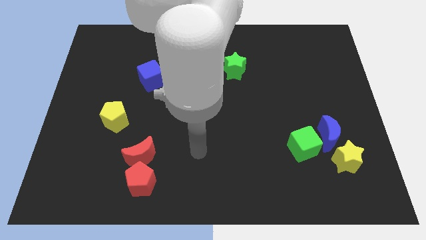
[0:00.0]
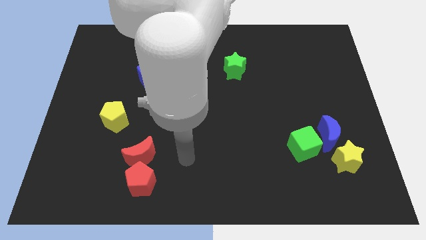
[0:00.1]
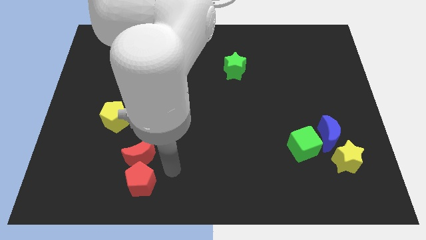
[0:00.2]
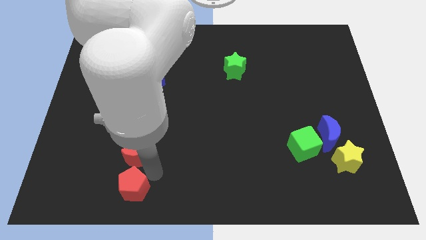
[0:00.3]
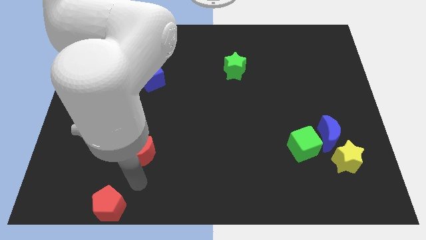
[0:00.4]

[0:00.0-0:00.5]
move the red moon away from the red pentagon

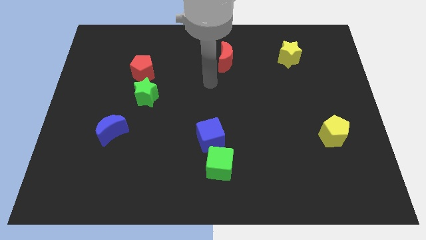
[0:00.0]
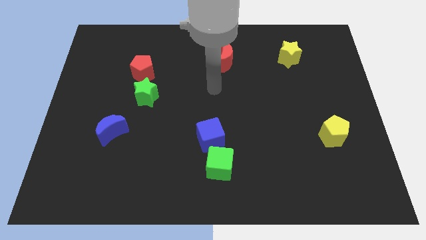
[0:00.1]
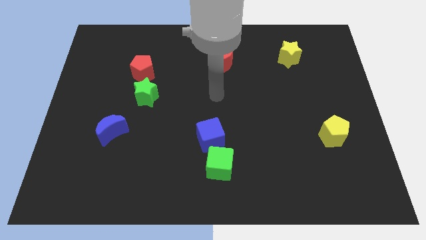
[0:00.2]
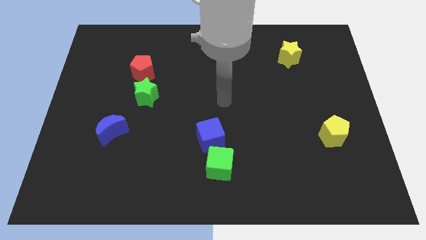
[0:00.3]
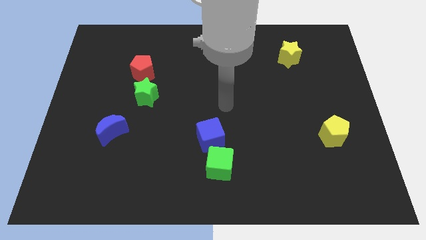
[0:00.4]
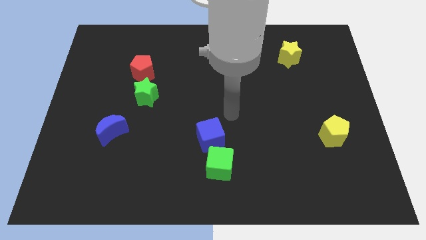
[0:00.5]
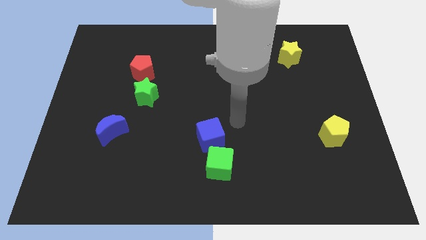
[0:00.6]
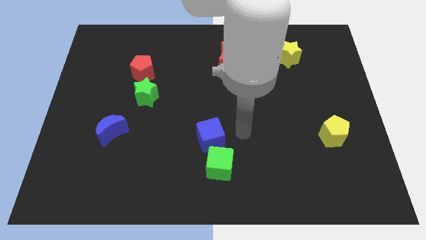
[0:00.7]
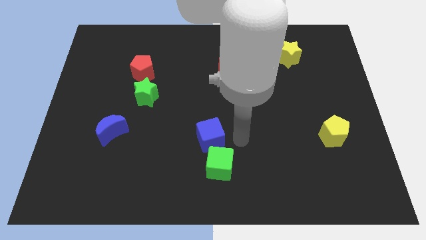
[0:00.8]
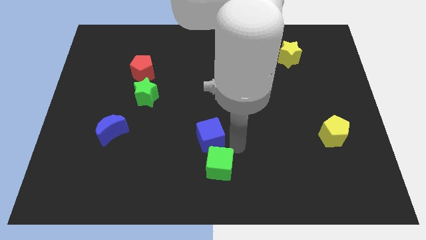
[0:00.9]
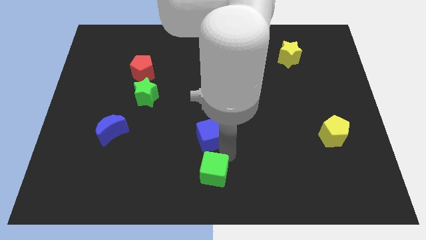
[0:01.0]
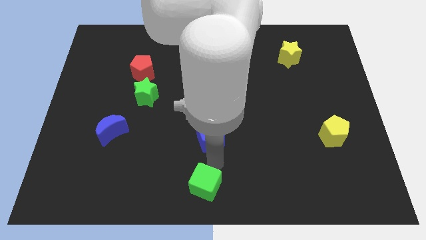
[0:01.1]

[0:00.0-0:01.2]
move the blue cube away from the green cube

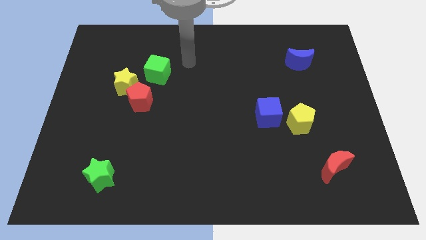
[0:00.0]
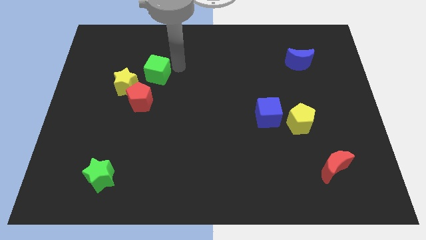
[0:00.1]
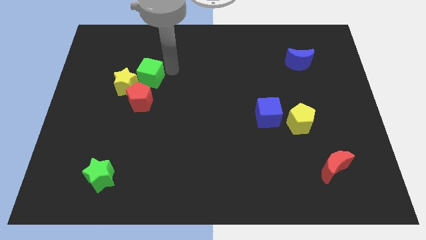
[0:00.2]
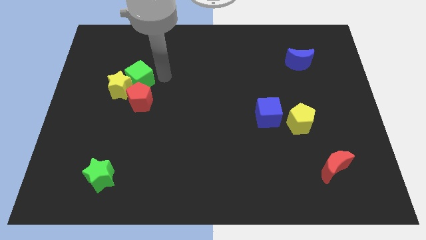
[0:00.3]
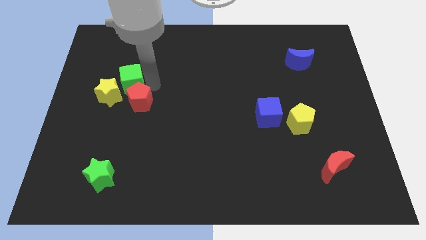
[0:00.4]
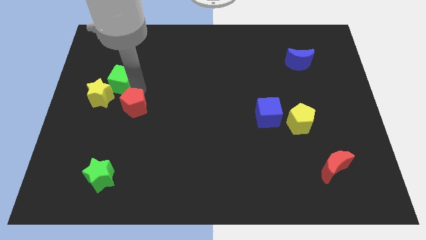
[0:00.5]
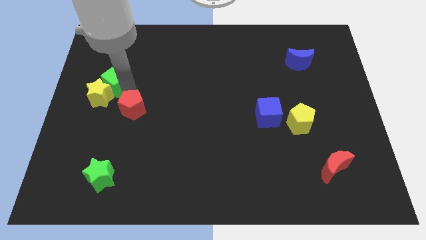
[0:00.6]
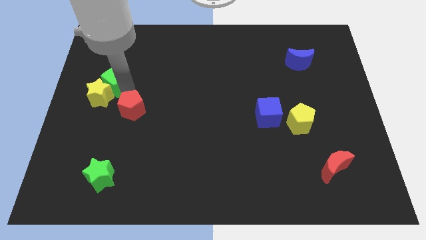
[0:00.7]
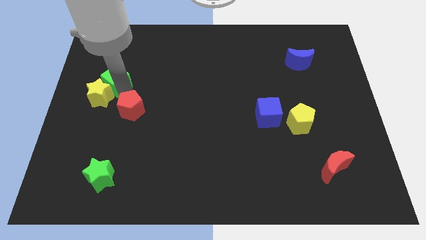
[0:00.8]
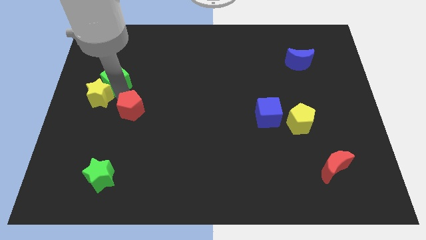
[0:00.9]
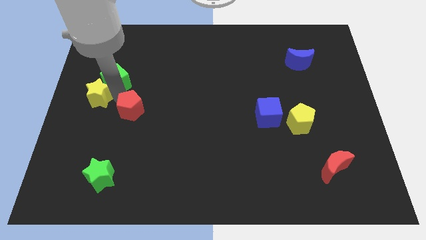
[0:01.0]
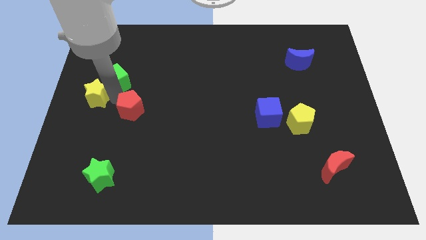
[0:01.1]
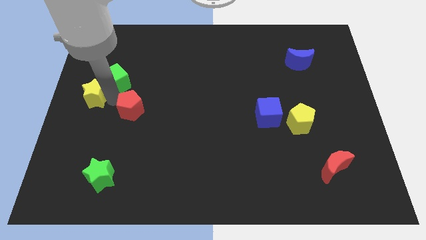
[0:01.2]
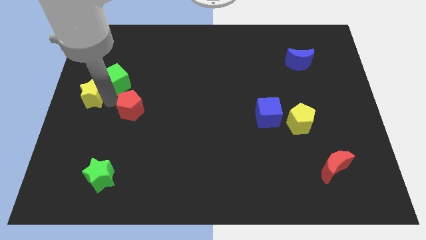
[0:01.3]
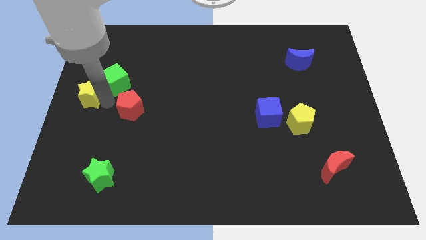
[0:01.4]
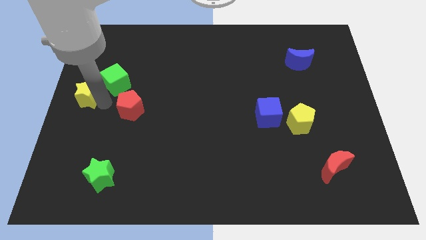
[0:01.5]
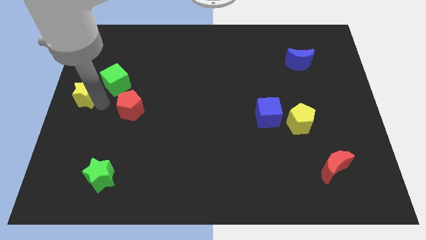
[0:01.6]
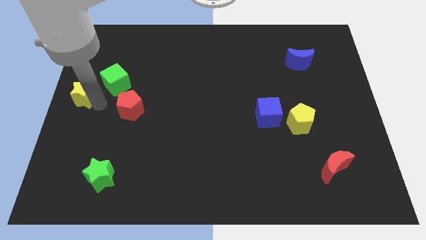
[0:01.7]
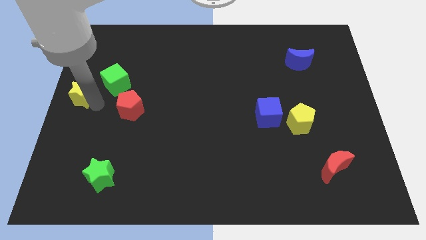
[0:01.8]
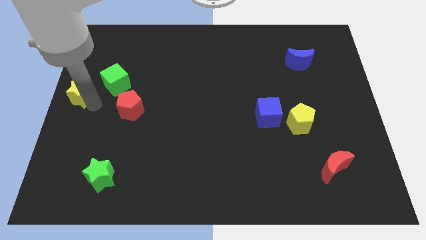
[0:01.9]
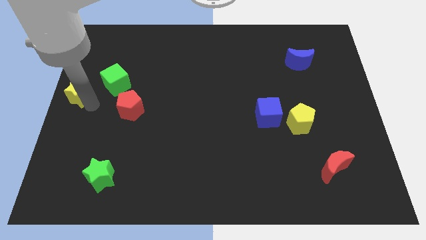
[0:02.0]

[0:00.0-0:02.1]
pull the yellow star apart from the red pentagon and green cube

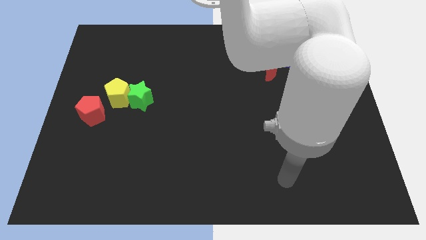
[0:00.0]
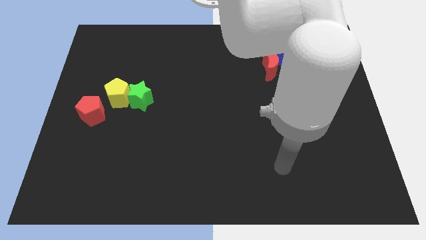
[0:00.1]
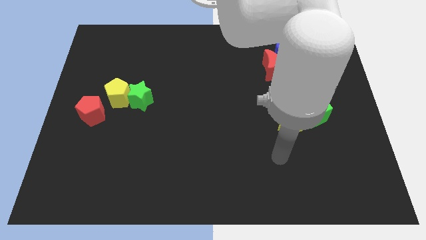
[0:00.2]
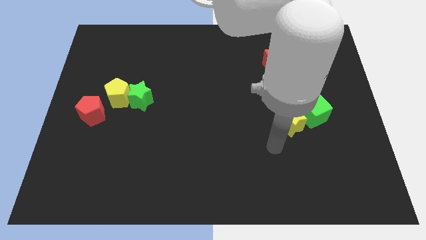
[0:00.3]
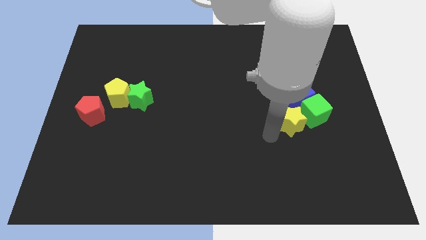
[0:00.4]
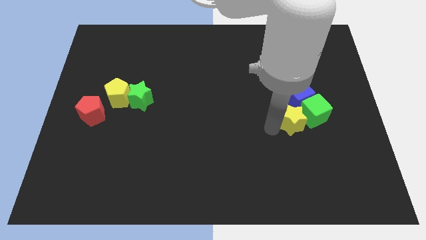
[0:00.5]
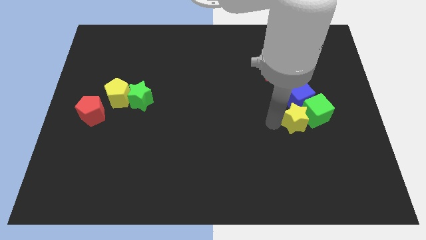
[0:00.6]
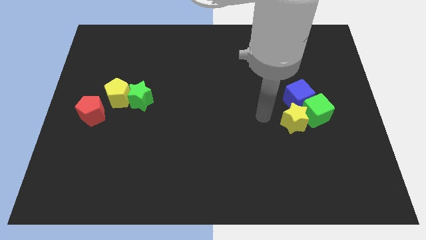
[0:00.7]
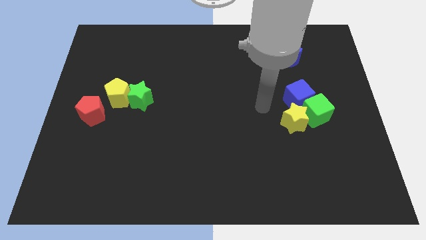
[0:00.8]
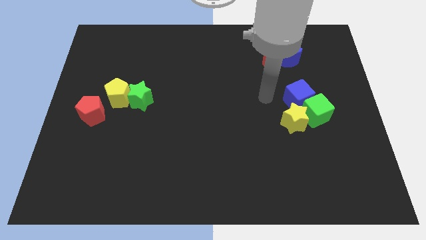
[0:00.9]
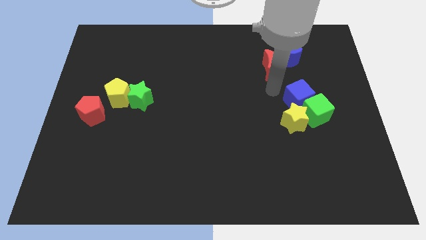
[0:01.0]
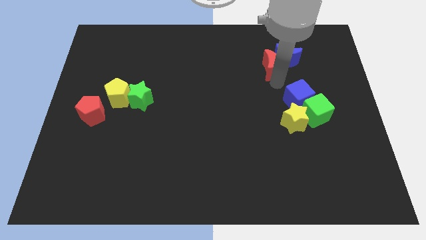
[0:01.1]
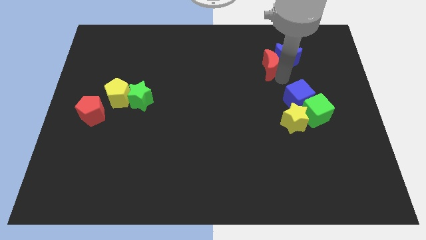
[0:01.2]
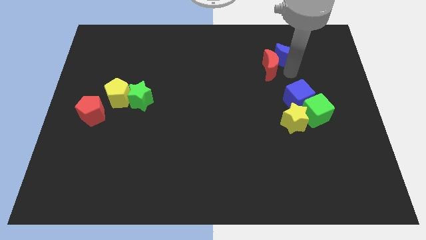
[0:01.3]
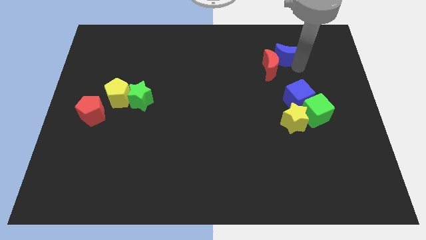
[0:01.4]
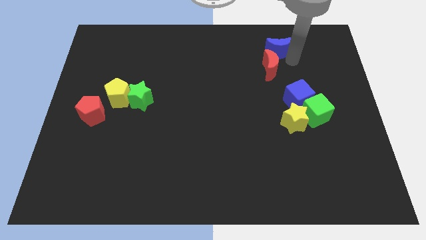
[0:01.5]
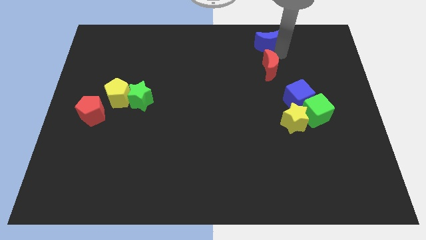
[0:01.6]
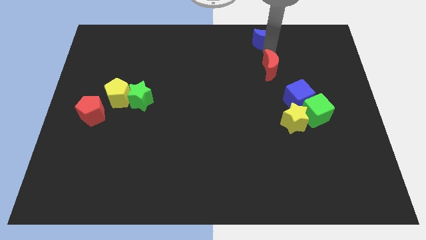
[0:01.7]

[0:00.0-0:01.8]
separate the red moon from the blue moon

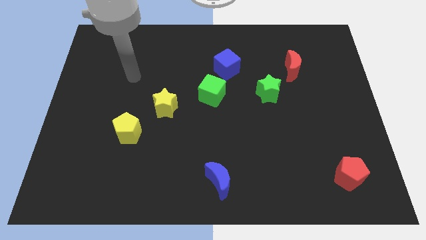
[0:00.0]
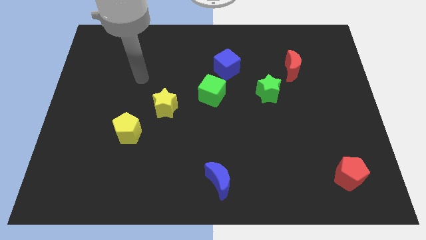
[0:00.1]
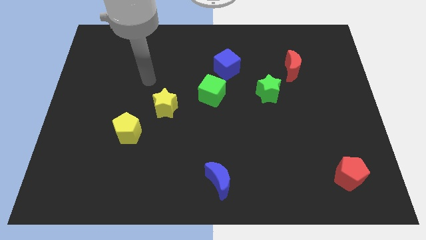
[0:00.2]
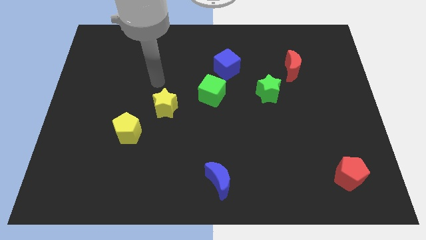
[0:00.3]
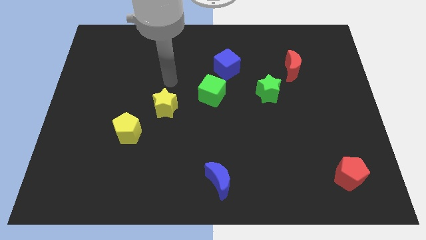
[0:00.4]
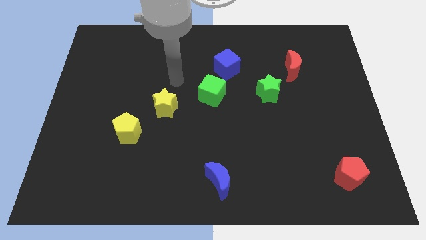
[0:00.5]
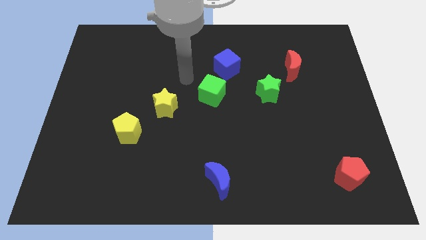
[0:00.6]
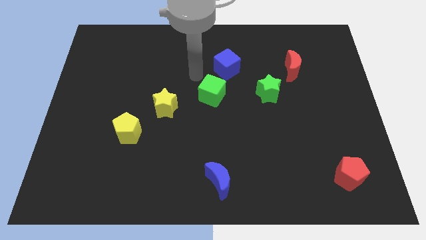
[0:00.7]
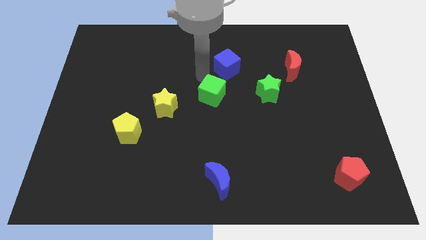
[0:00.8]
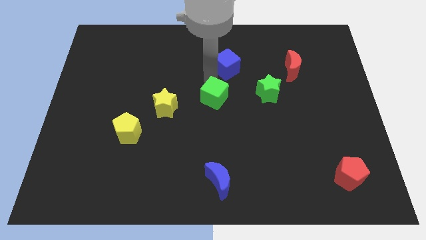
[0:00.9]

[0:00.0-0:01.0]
pull the blue cube apart from the green cube

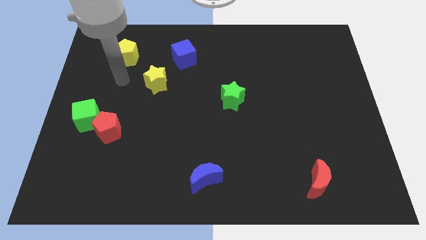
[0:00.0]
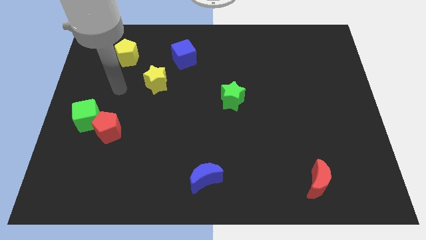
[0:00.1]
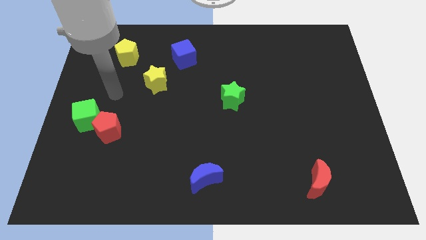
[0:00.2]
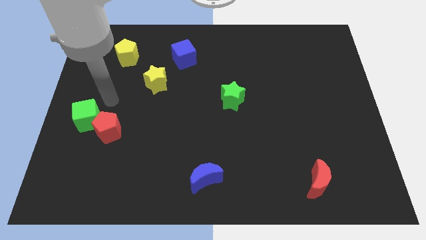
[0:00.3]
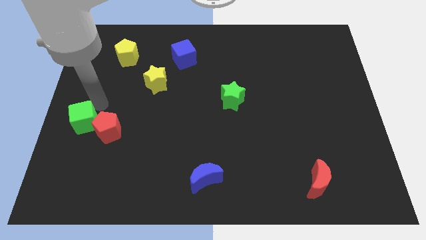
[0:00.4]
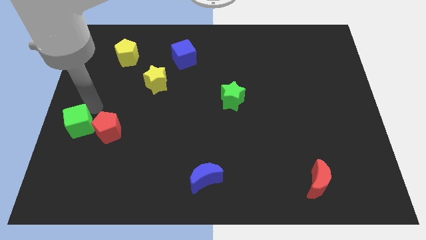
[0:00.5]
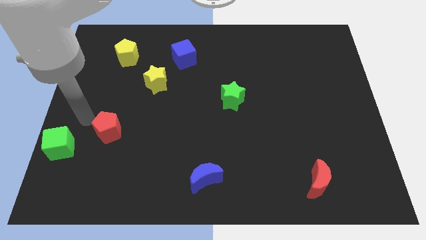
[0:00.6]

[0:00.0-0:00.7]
move the red pentagon away from the green cube

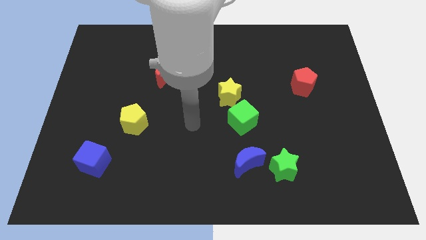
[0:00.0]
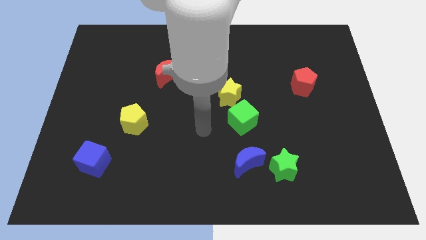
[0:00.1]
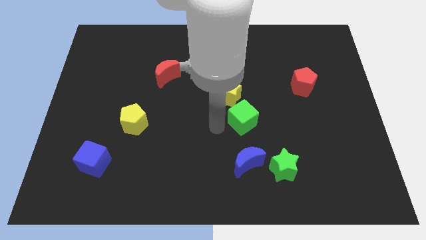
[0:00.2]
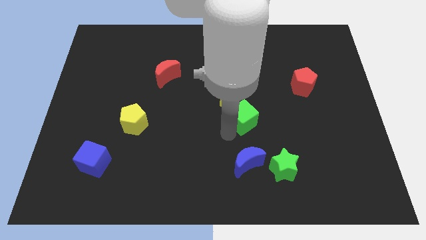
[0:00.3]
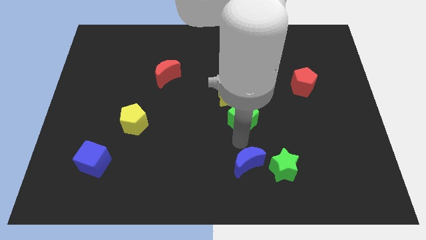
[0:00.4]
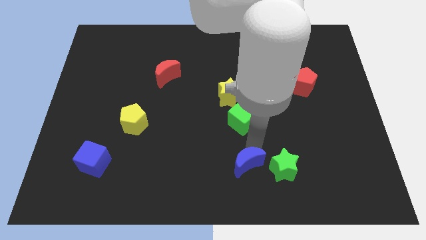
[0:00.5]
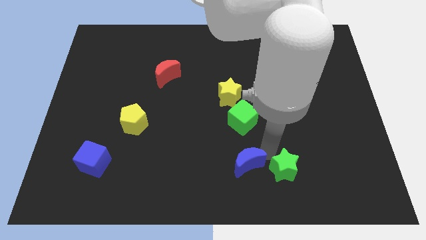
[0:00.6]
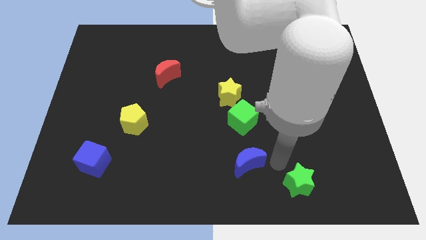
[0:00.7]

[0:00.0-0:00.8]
move the blue moon away from the green star

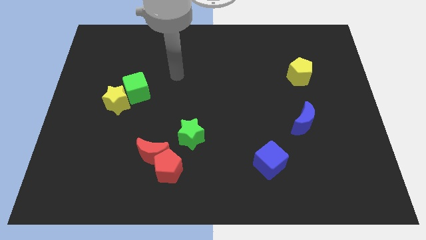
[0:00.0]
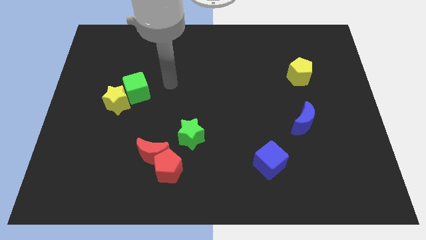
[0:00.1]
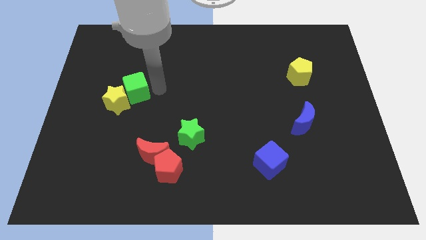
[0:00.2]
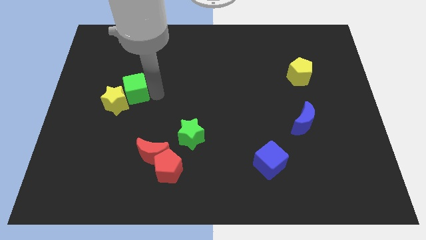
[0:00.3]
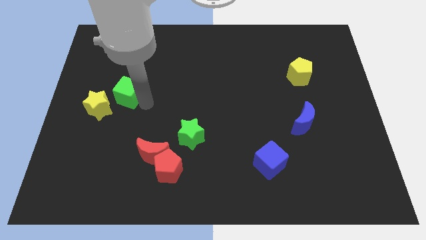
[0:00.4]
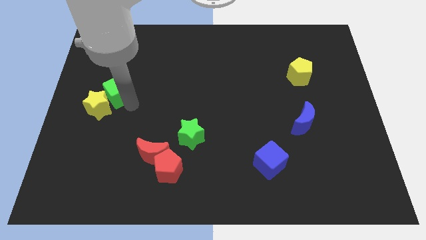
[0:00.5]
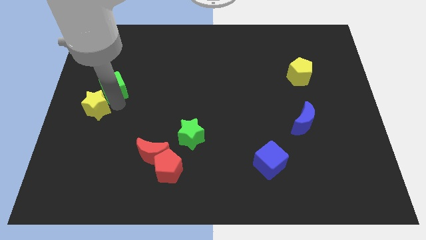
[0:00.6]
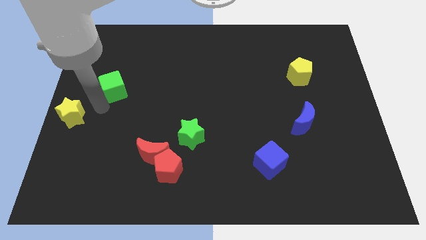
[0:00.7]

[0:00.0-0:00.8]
move the green cube away from the yellow star

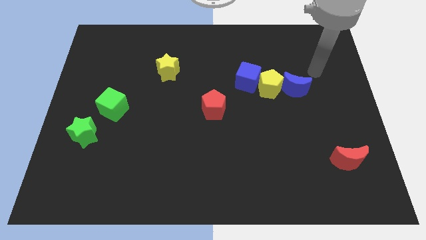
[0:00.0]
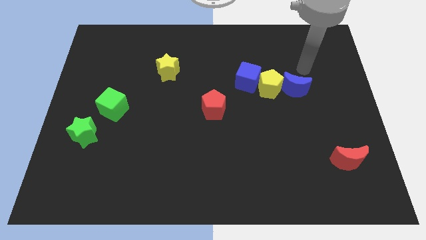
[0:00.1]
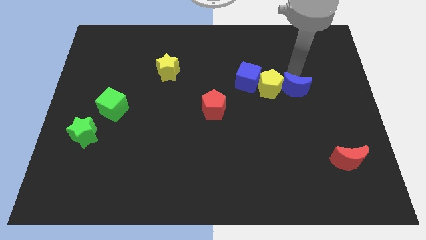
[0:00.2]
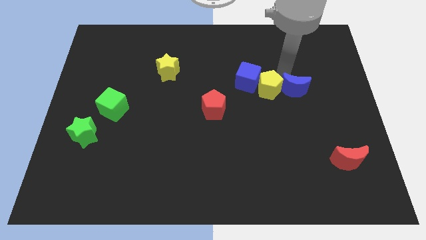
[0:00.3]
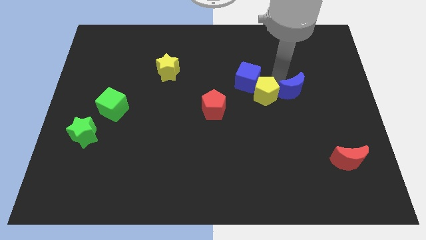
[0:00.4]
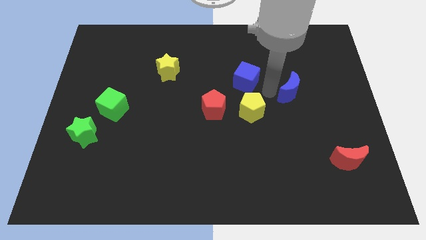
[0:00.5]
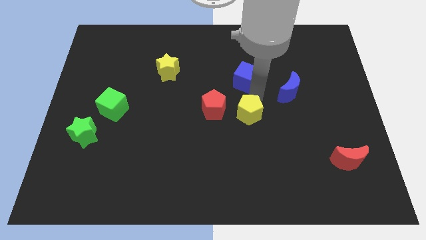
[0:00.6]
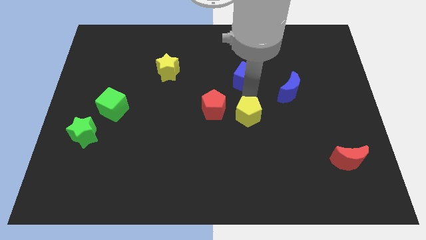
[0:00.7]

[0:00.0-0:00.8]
separate the blue cube from the yellow pentagon
